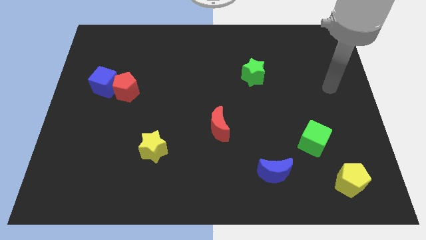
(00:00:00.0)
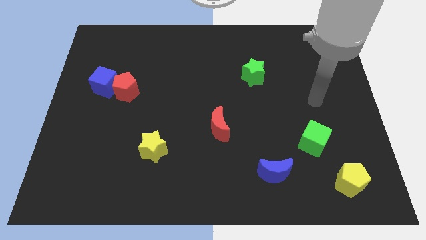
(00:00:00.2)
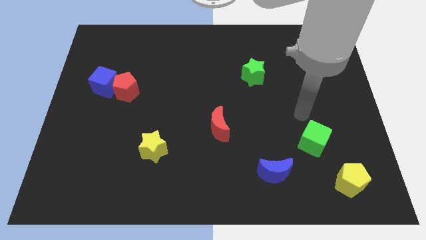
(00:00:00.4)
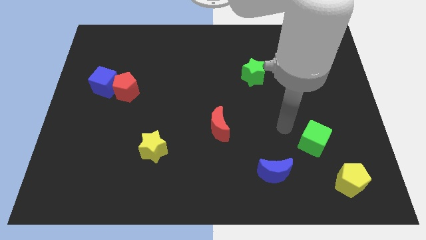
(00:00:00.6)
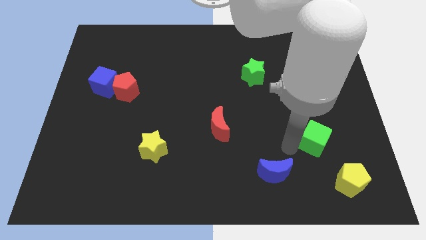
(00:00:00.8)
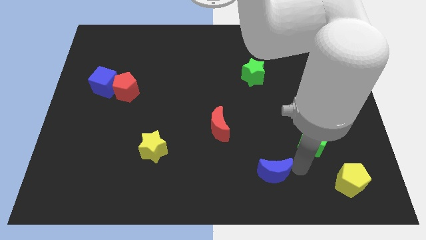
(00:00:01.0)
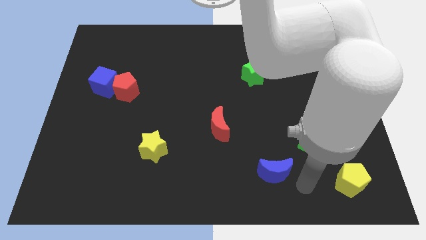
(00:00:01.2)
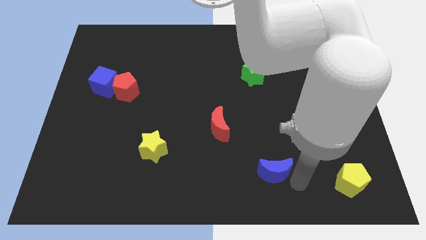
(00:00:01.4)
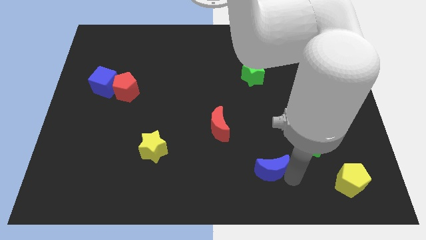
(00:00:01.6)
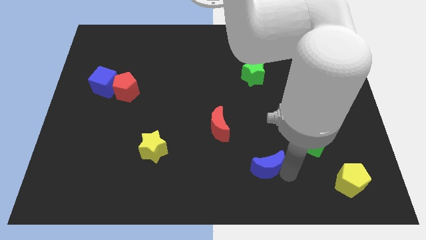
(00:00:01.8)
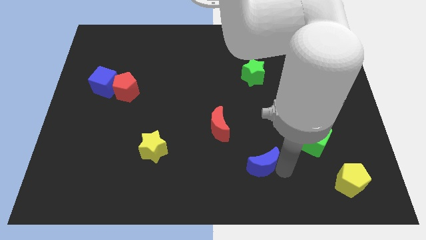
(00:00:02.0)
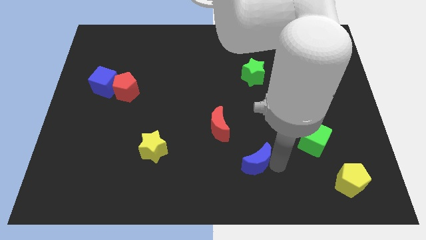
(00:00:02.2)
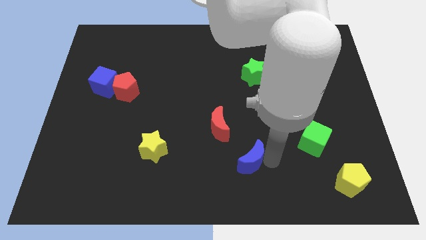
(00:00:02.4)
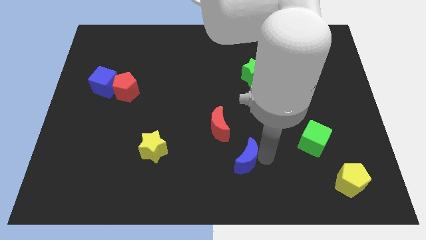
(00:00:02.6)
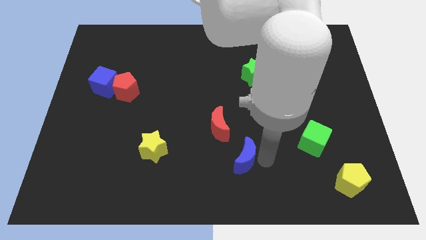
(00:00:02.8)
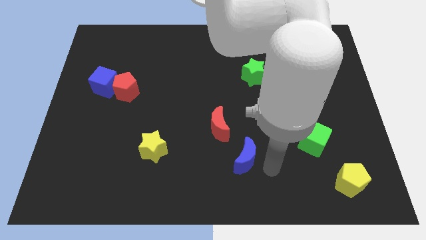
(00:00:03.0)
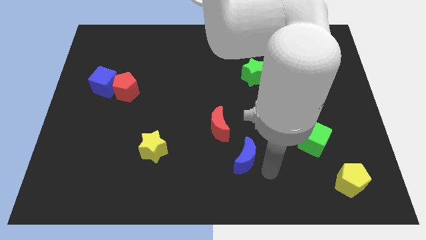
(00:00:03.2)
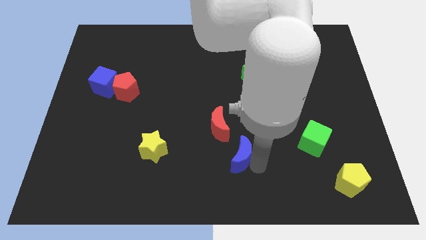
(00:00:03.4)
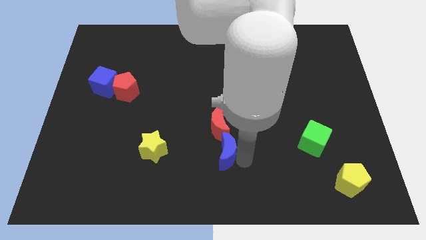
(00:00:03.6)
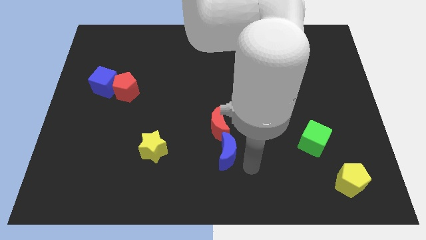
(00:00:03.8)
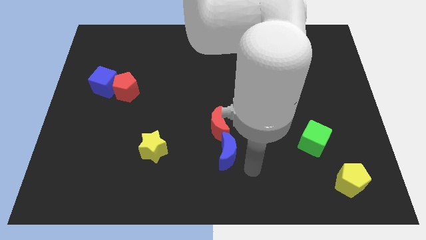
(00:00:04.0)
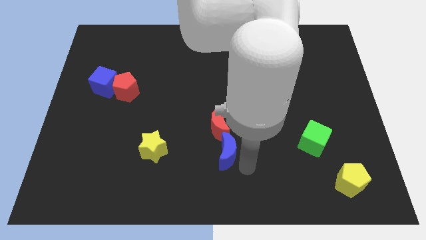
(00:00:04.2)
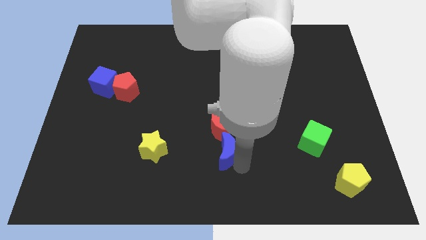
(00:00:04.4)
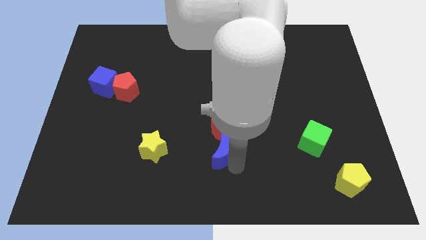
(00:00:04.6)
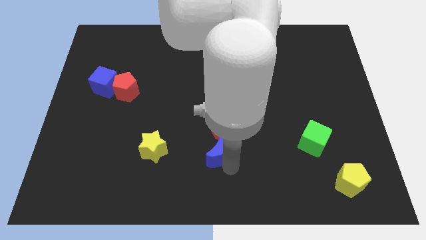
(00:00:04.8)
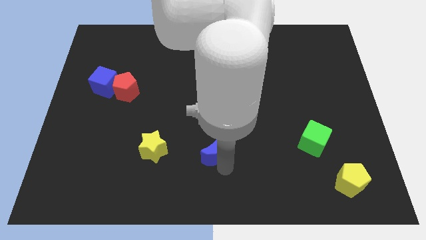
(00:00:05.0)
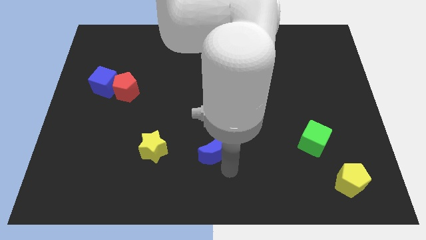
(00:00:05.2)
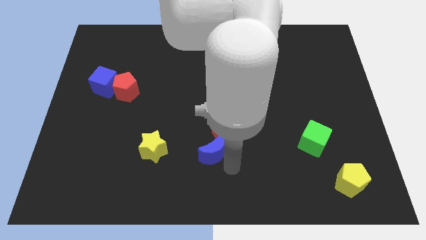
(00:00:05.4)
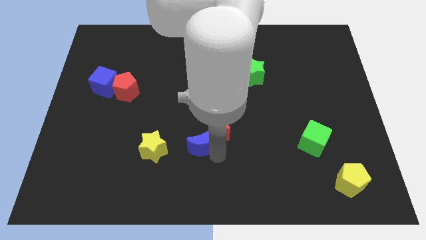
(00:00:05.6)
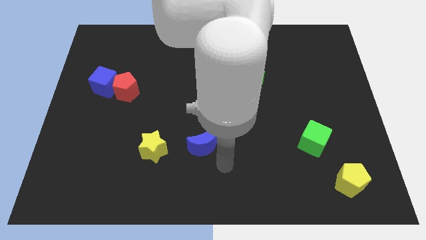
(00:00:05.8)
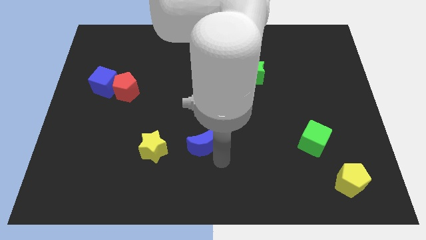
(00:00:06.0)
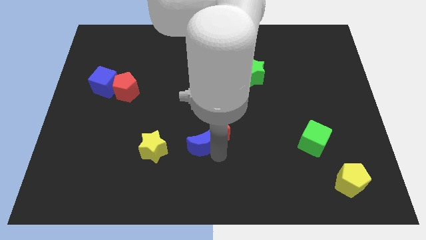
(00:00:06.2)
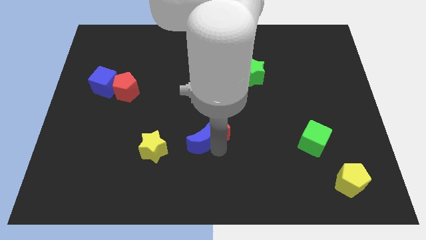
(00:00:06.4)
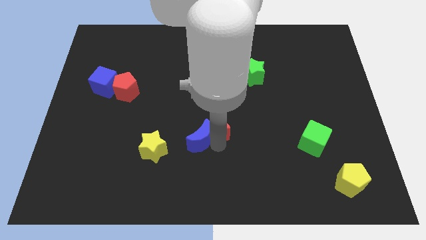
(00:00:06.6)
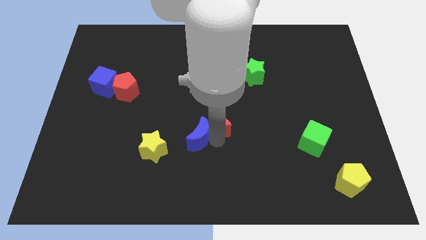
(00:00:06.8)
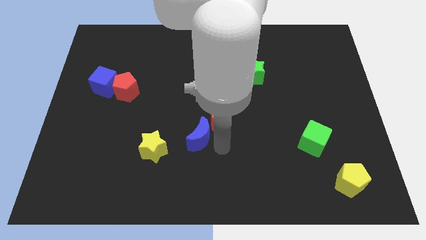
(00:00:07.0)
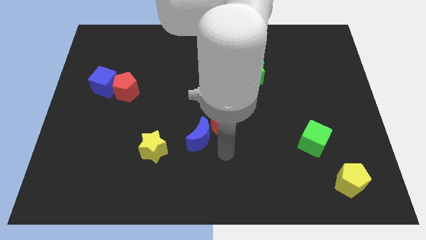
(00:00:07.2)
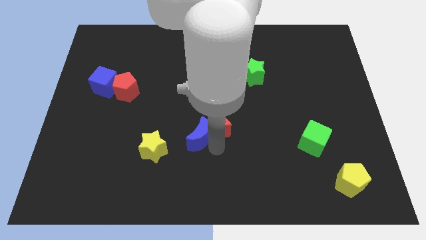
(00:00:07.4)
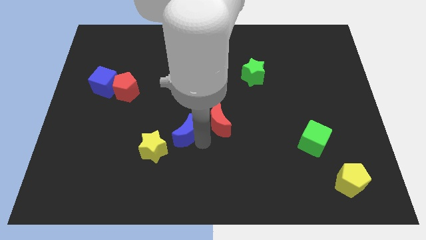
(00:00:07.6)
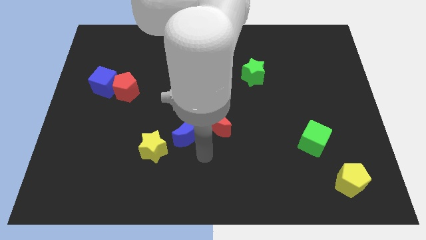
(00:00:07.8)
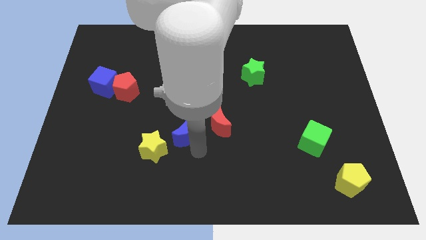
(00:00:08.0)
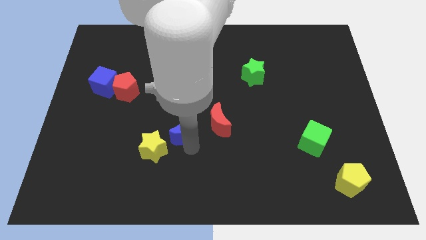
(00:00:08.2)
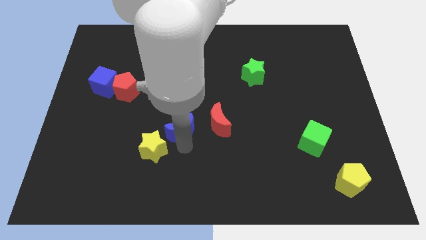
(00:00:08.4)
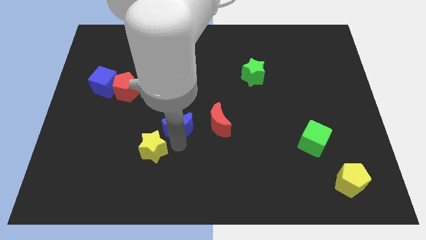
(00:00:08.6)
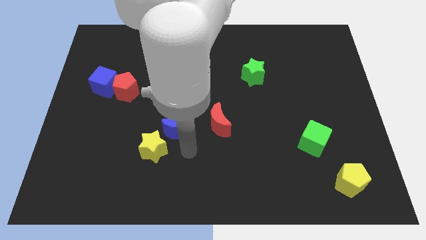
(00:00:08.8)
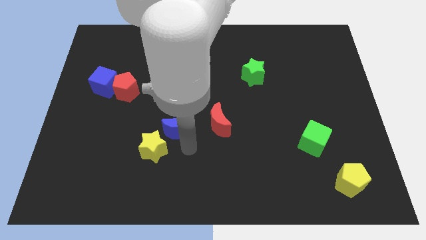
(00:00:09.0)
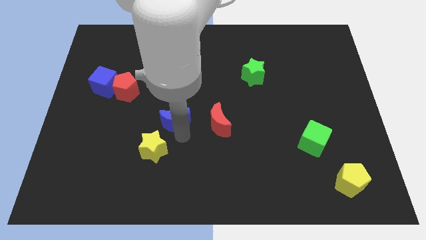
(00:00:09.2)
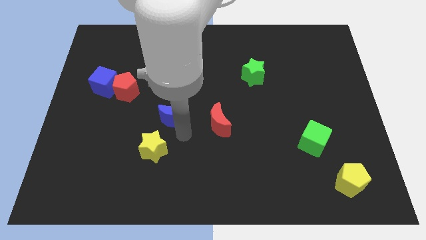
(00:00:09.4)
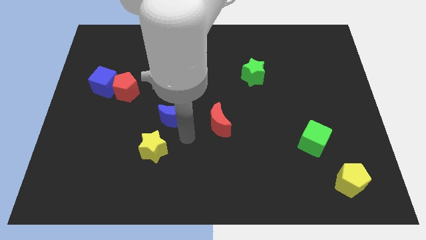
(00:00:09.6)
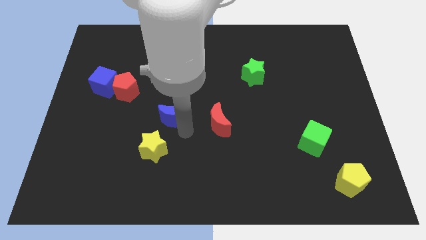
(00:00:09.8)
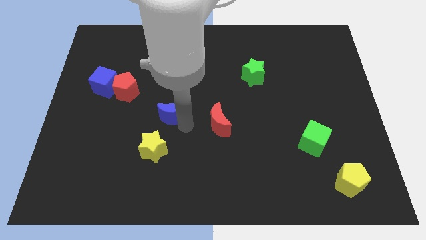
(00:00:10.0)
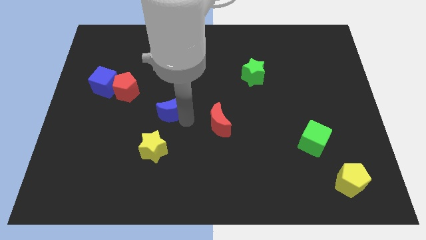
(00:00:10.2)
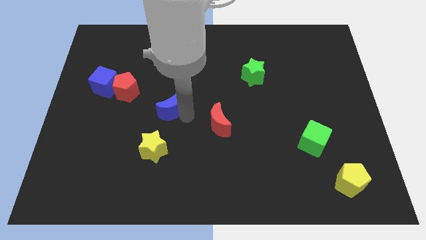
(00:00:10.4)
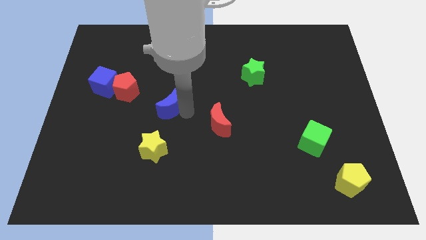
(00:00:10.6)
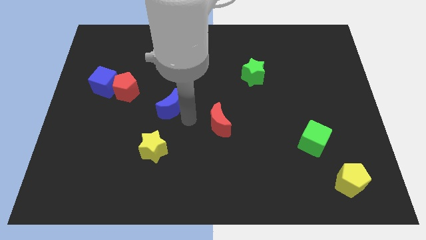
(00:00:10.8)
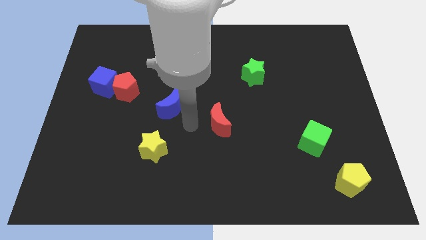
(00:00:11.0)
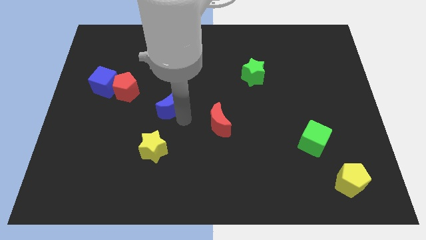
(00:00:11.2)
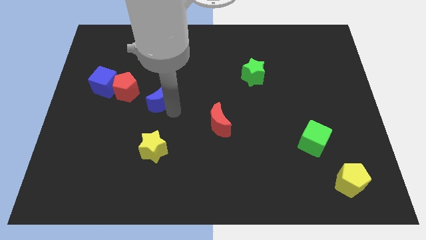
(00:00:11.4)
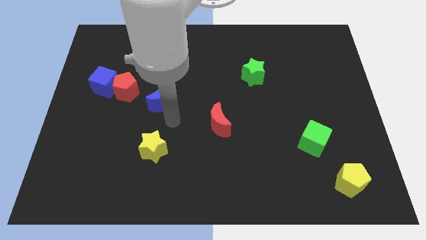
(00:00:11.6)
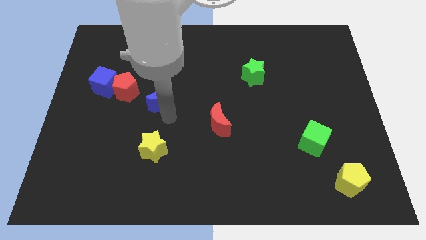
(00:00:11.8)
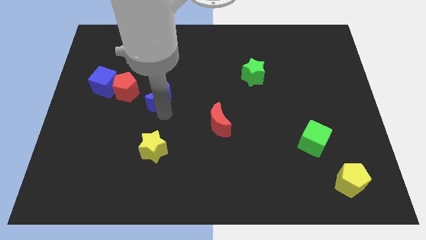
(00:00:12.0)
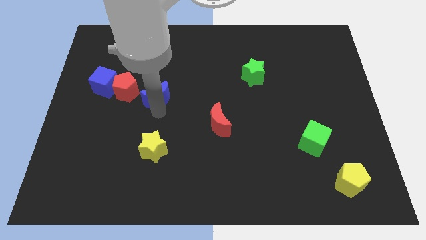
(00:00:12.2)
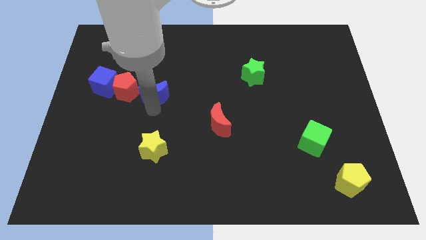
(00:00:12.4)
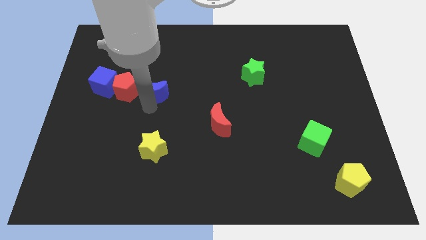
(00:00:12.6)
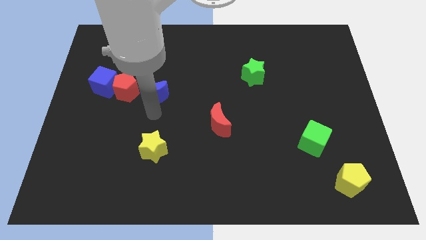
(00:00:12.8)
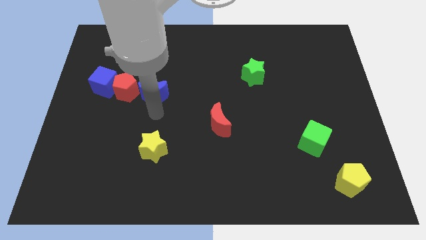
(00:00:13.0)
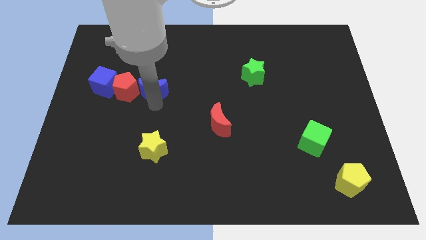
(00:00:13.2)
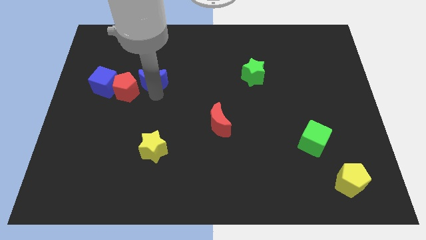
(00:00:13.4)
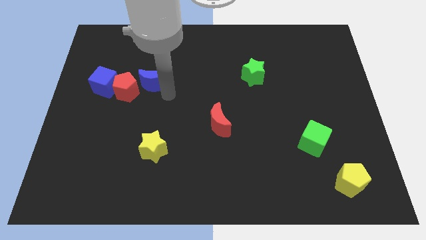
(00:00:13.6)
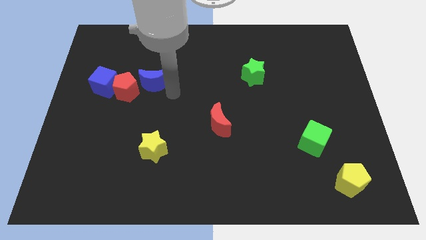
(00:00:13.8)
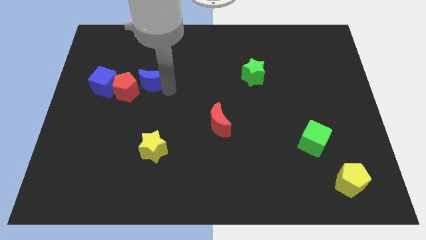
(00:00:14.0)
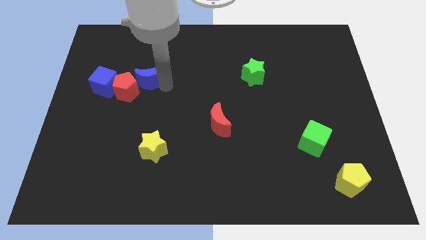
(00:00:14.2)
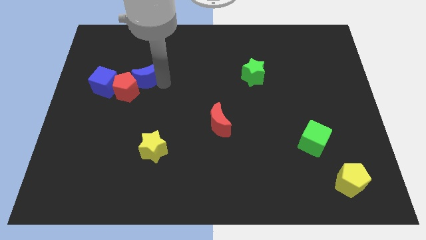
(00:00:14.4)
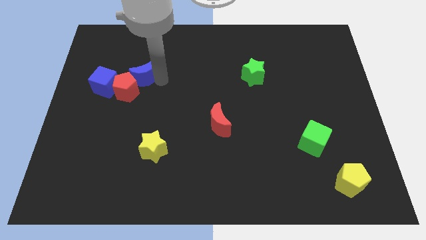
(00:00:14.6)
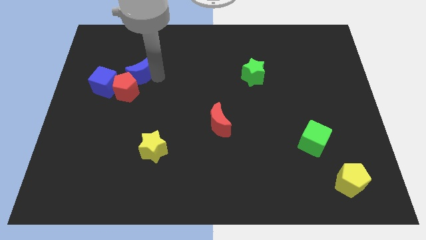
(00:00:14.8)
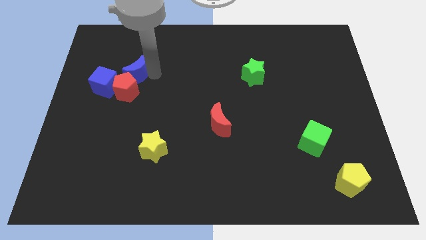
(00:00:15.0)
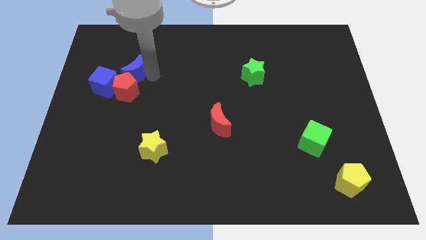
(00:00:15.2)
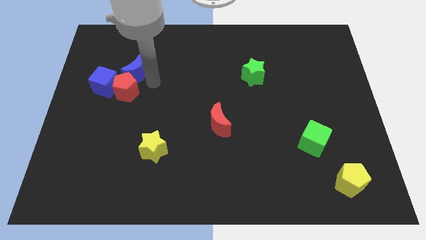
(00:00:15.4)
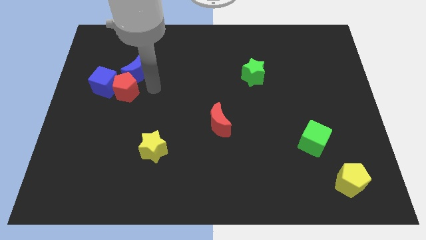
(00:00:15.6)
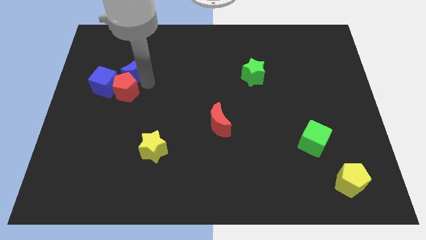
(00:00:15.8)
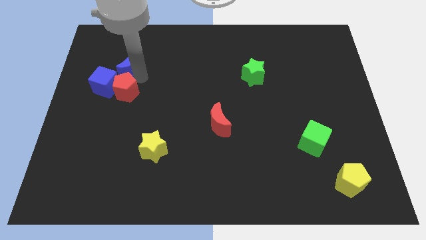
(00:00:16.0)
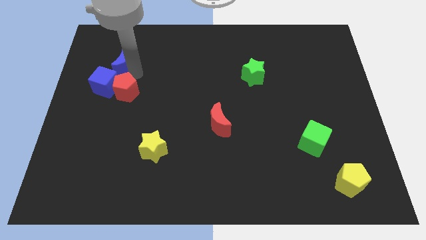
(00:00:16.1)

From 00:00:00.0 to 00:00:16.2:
put the blue moon to the top of the blue cube
